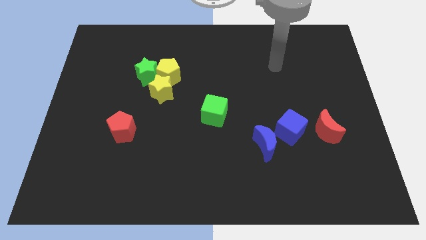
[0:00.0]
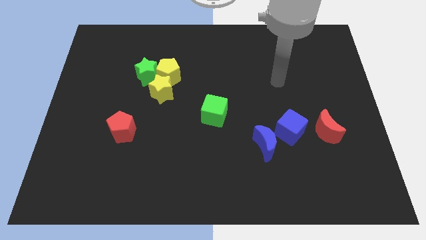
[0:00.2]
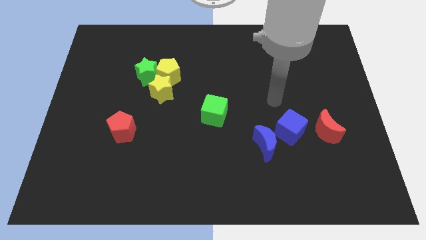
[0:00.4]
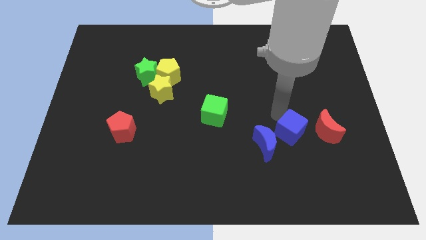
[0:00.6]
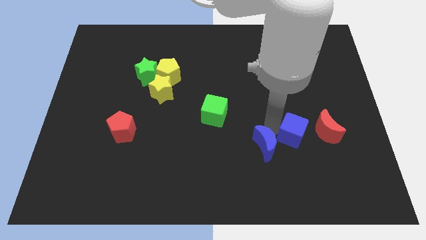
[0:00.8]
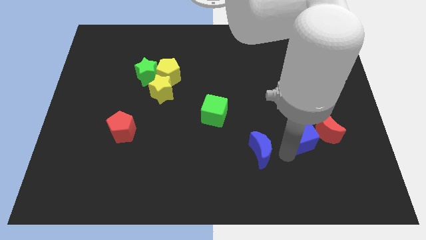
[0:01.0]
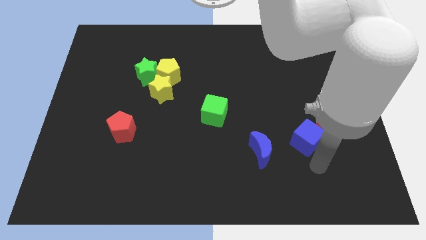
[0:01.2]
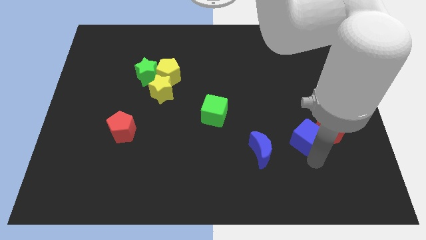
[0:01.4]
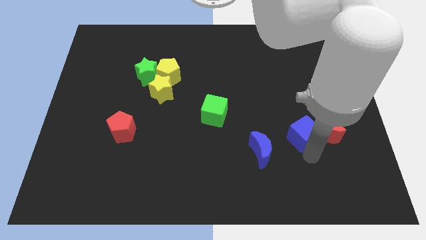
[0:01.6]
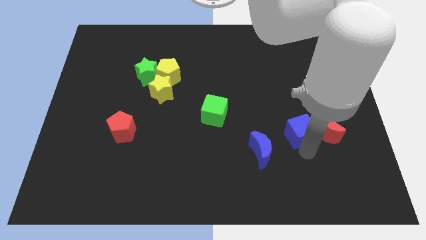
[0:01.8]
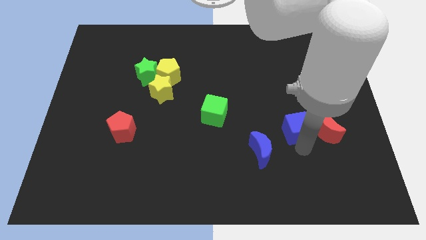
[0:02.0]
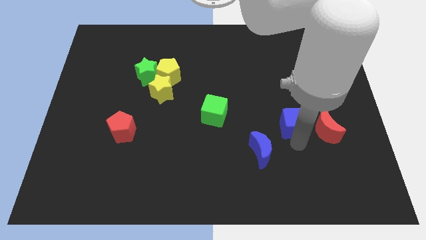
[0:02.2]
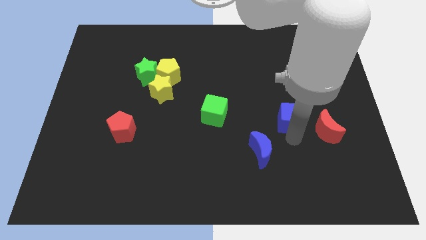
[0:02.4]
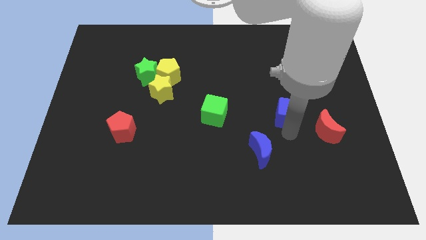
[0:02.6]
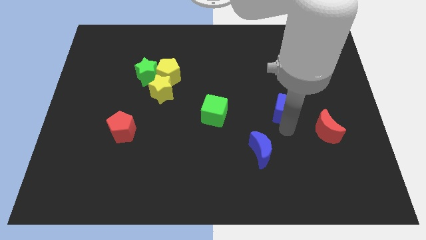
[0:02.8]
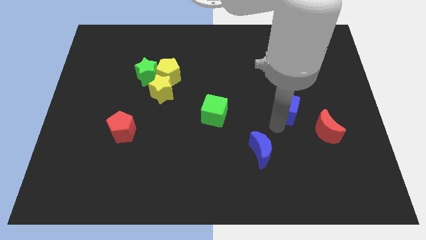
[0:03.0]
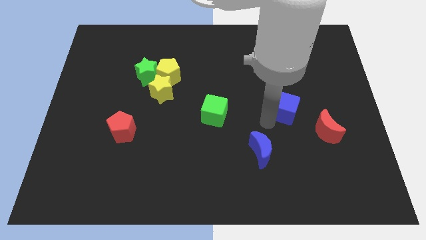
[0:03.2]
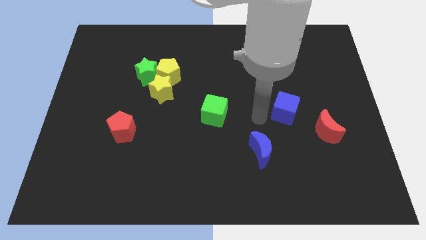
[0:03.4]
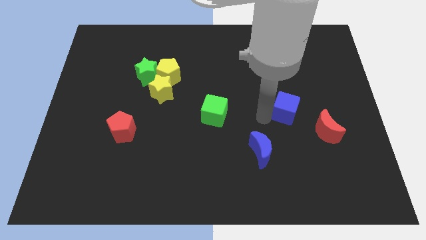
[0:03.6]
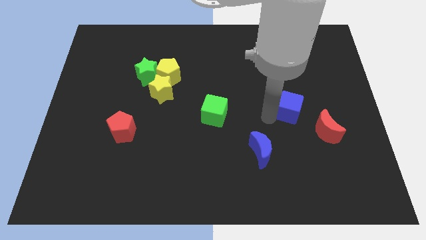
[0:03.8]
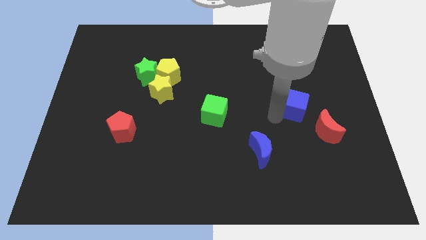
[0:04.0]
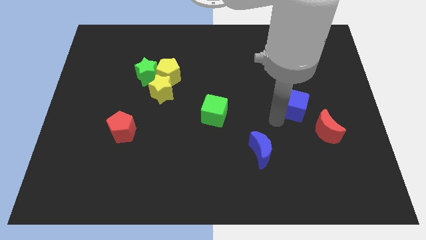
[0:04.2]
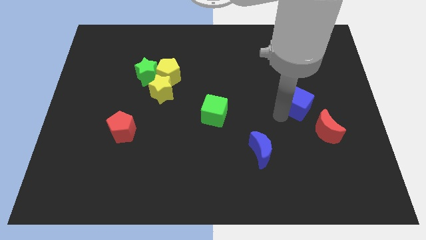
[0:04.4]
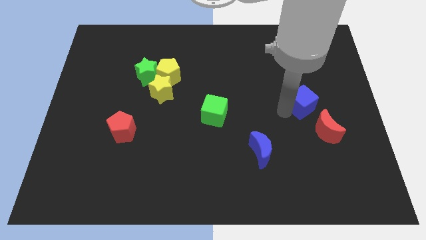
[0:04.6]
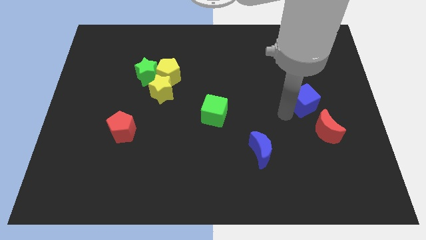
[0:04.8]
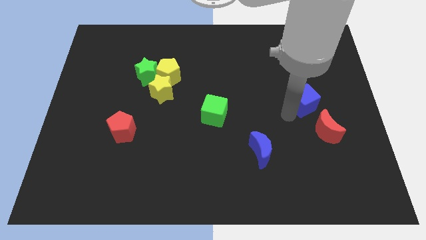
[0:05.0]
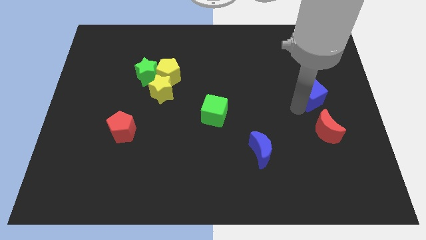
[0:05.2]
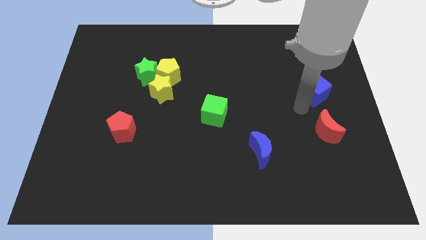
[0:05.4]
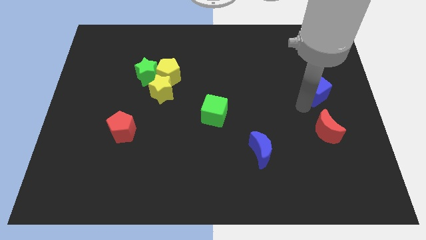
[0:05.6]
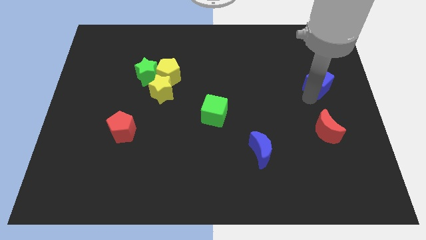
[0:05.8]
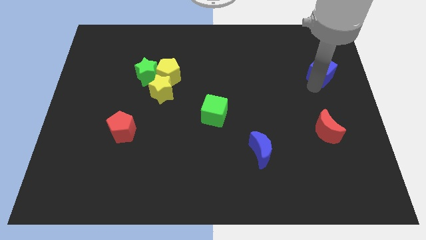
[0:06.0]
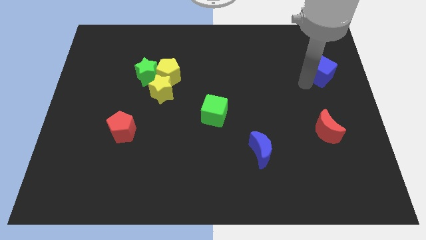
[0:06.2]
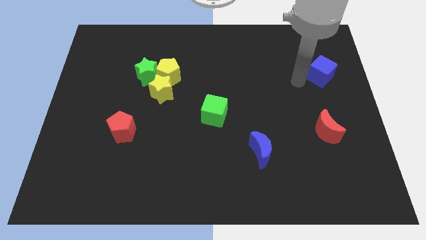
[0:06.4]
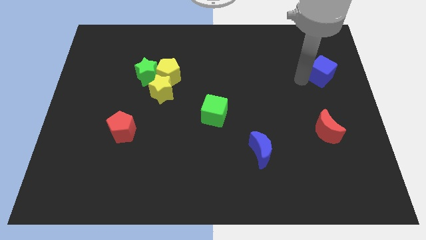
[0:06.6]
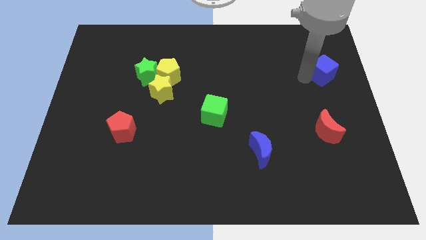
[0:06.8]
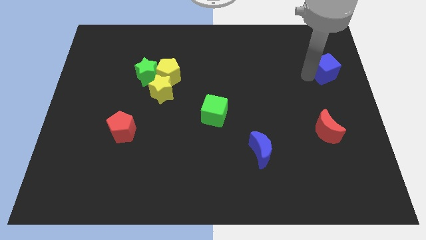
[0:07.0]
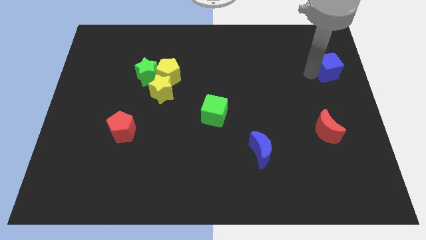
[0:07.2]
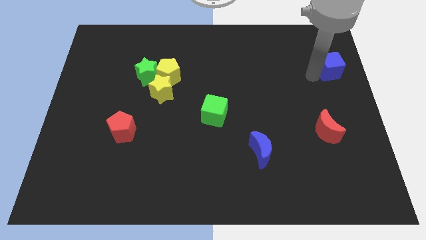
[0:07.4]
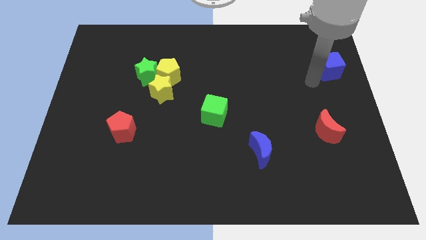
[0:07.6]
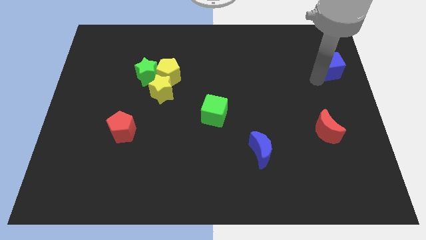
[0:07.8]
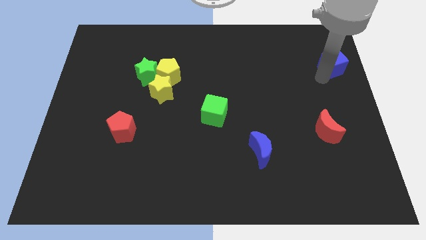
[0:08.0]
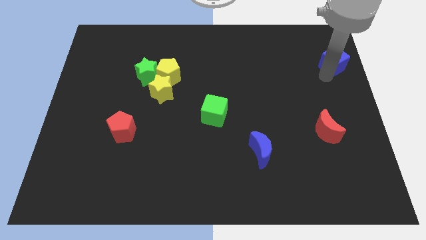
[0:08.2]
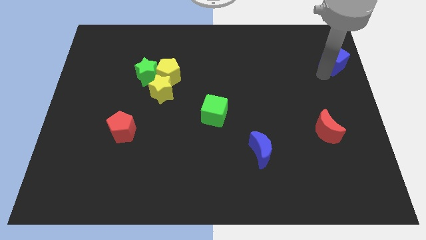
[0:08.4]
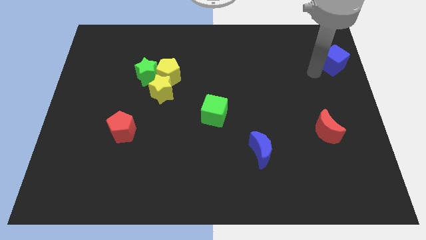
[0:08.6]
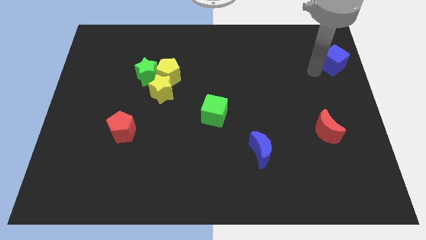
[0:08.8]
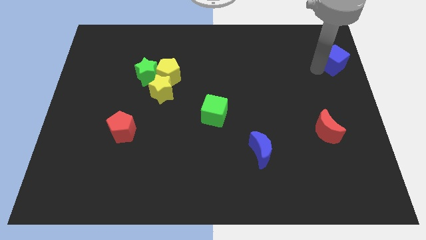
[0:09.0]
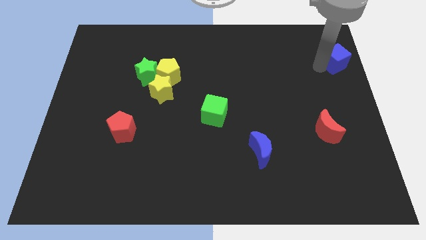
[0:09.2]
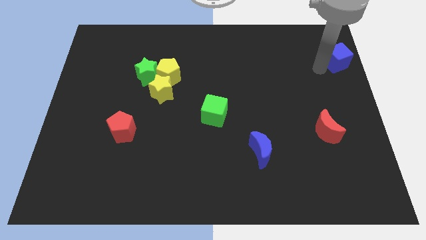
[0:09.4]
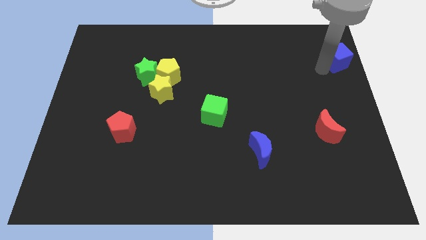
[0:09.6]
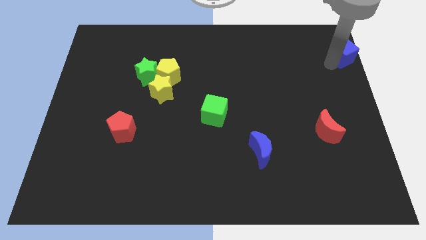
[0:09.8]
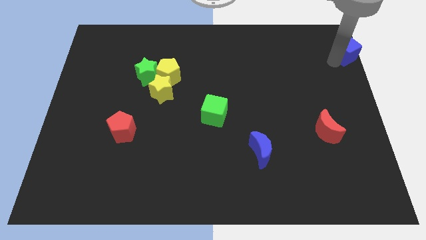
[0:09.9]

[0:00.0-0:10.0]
move the blue cube to the top right

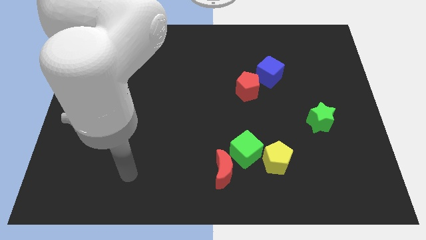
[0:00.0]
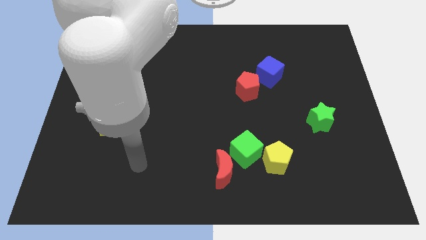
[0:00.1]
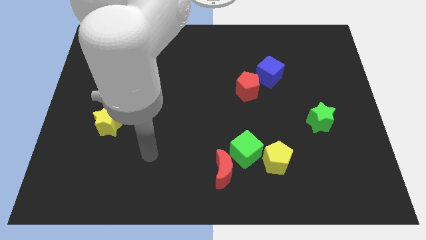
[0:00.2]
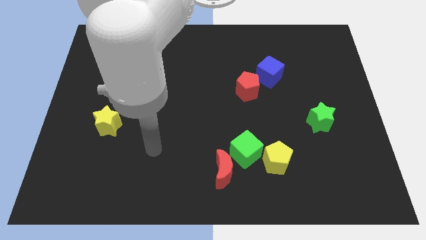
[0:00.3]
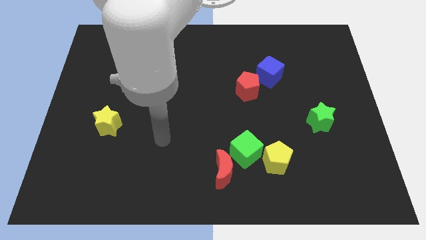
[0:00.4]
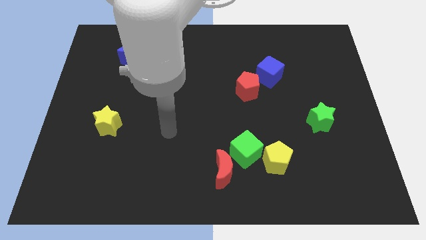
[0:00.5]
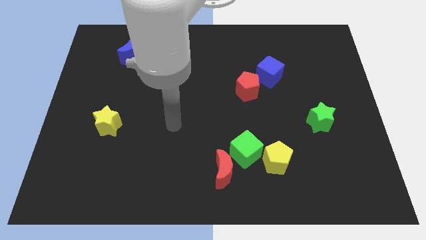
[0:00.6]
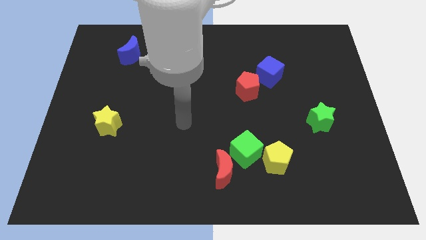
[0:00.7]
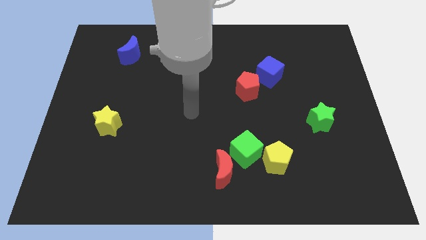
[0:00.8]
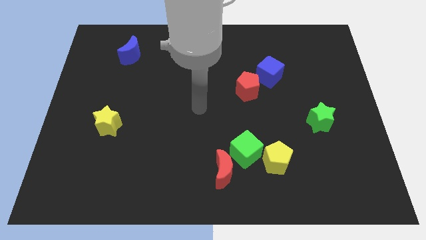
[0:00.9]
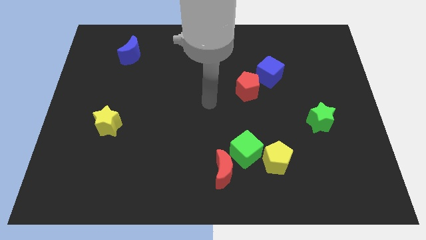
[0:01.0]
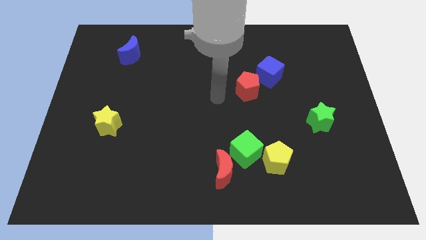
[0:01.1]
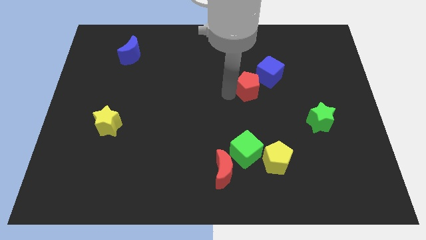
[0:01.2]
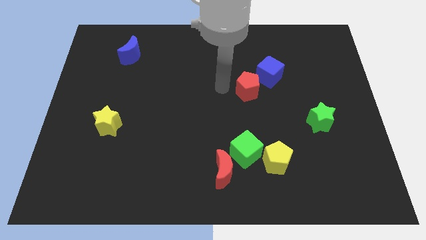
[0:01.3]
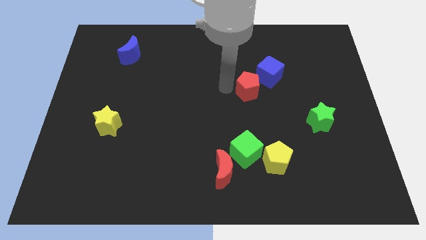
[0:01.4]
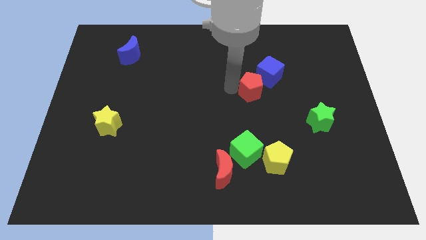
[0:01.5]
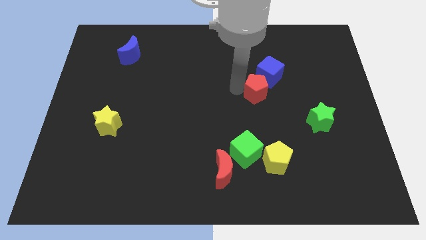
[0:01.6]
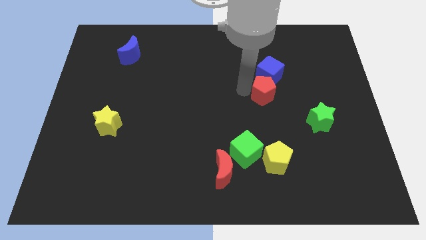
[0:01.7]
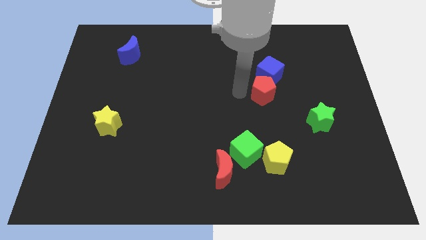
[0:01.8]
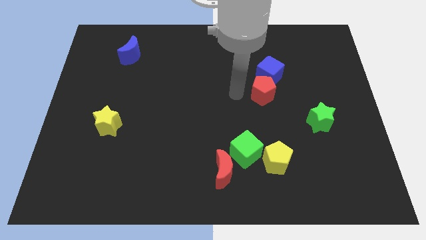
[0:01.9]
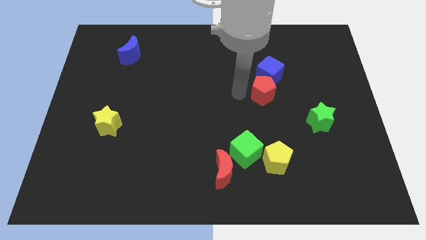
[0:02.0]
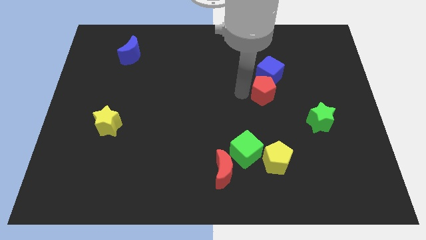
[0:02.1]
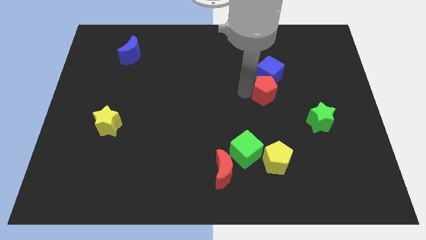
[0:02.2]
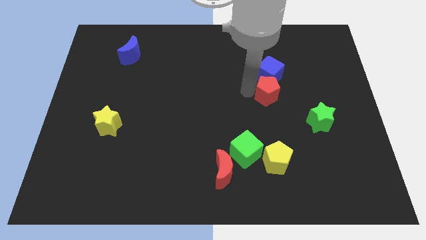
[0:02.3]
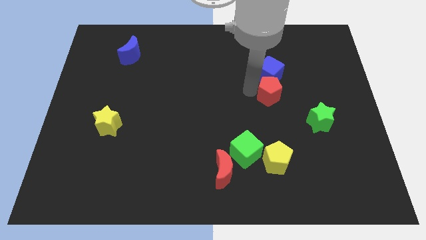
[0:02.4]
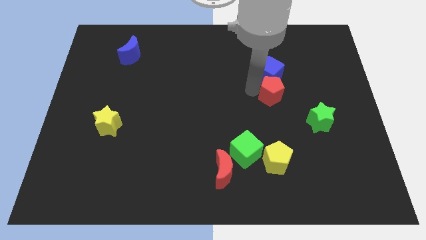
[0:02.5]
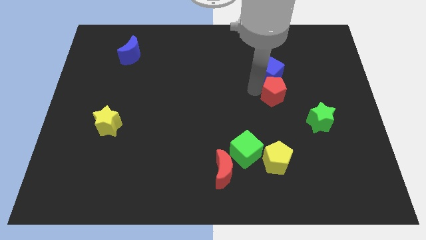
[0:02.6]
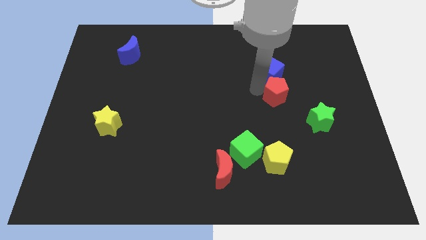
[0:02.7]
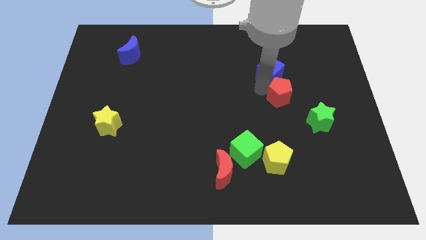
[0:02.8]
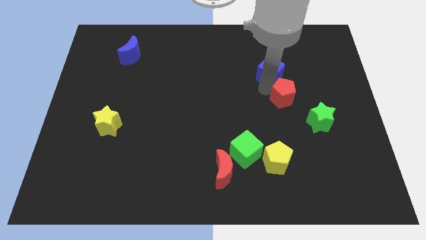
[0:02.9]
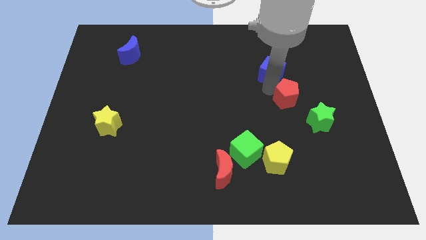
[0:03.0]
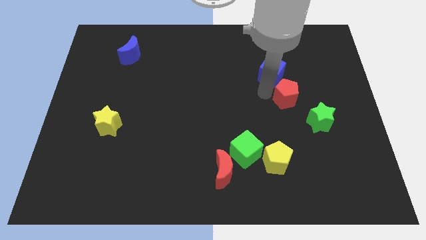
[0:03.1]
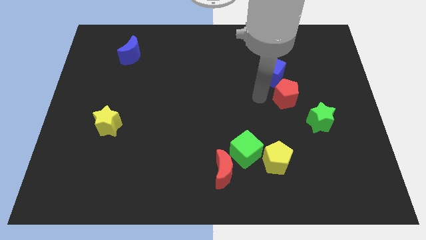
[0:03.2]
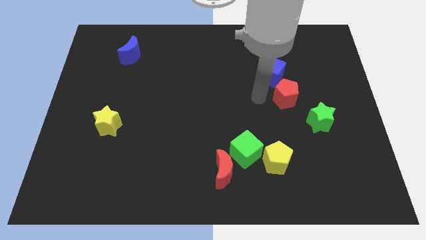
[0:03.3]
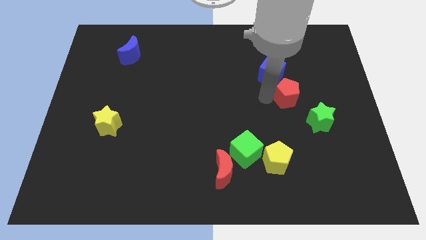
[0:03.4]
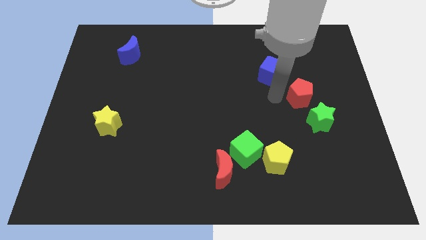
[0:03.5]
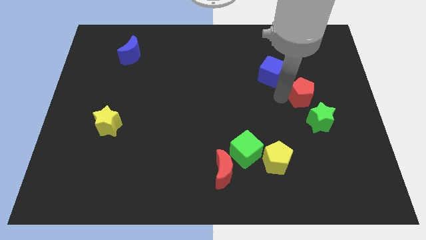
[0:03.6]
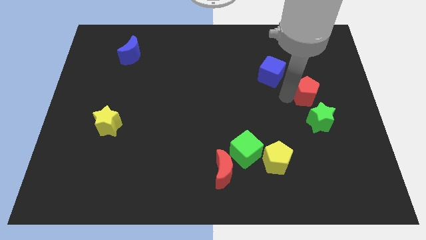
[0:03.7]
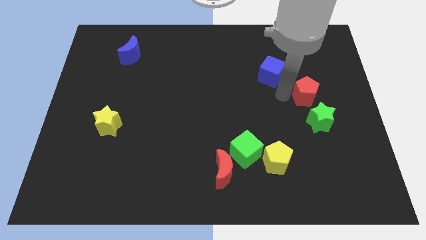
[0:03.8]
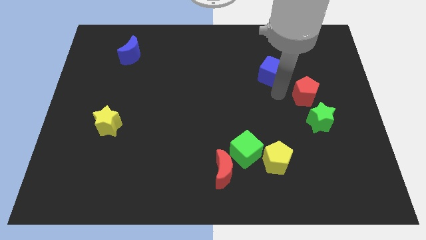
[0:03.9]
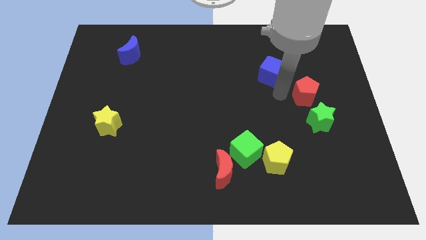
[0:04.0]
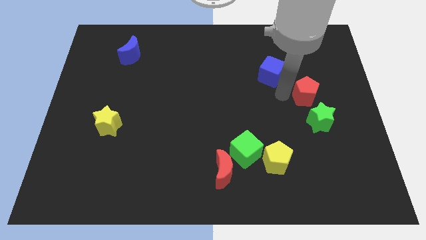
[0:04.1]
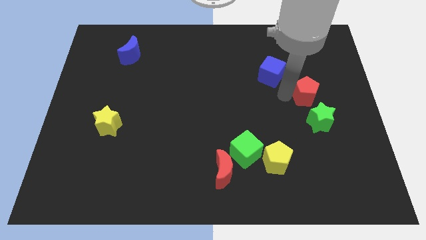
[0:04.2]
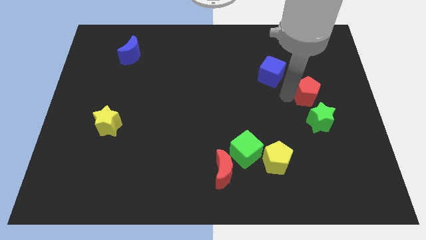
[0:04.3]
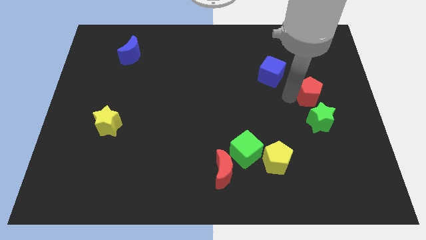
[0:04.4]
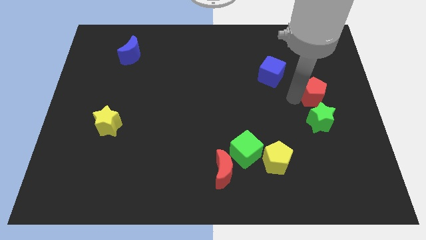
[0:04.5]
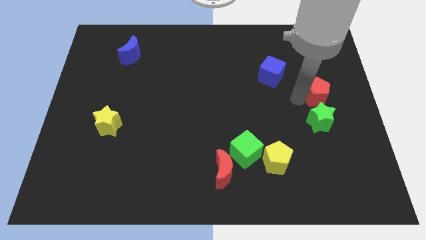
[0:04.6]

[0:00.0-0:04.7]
push the red pentagon to the center right
